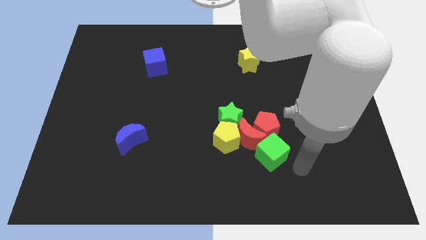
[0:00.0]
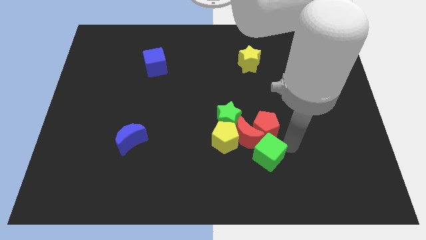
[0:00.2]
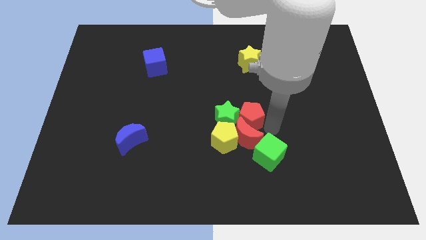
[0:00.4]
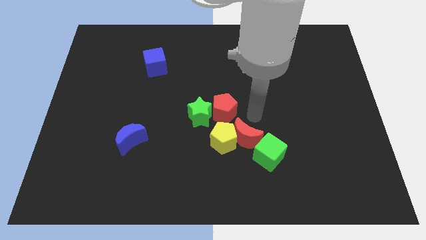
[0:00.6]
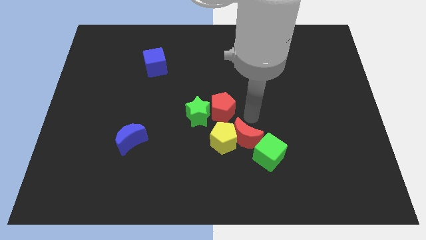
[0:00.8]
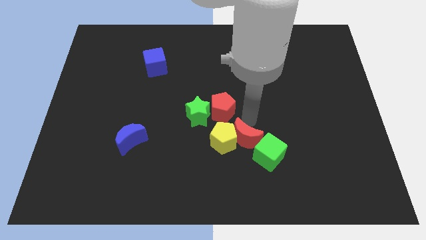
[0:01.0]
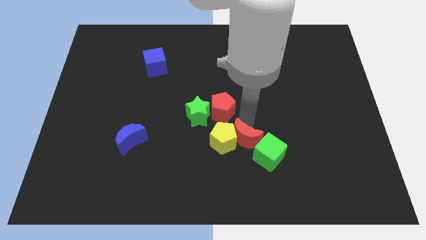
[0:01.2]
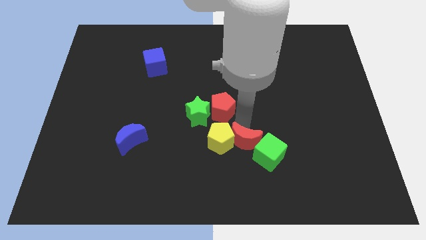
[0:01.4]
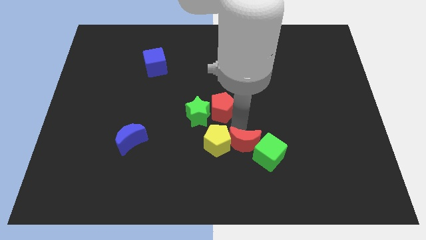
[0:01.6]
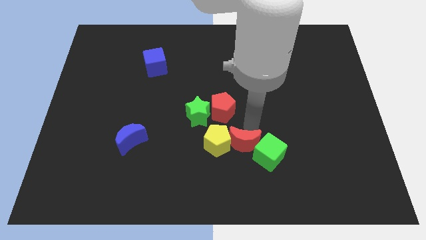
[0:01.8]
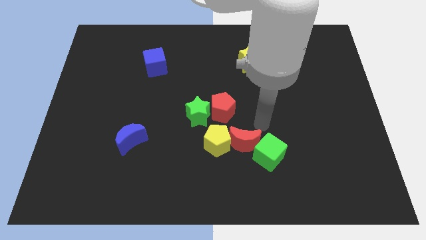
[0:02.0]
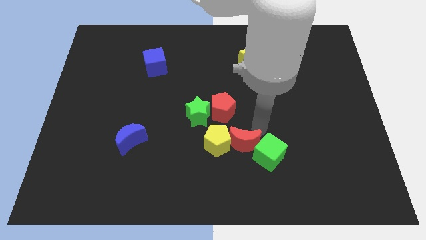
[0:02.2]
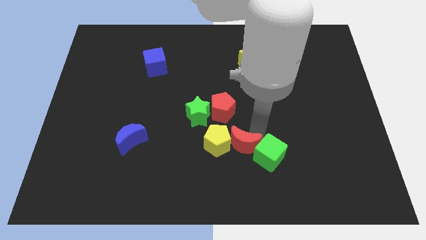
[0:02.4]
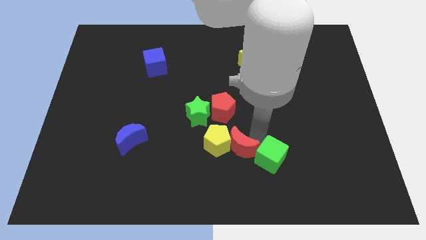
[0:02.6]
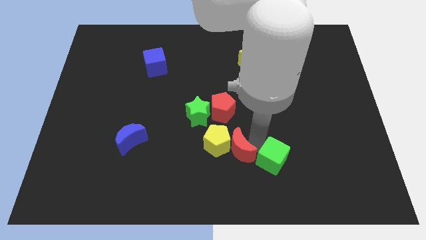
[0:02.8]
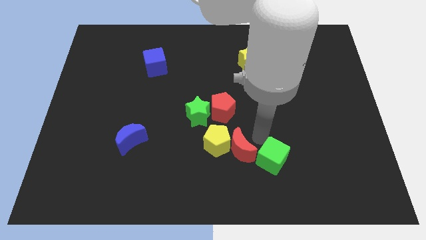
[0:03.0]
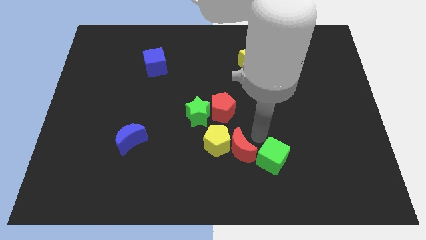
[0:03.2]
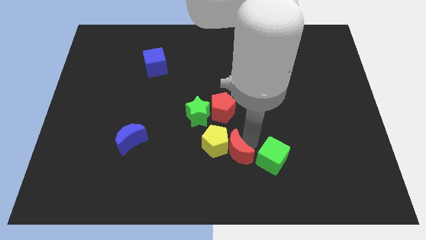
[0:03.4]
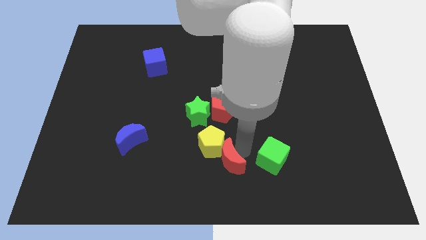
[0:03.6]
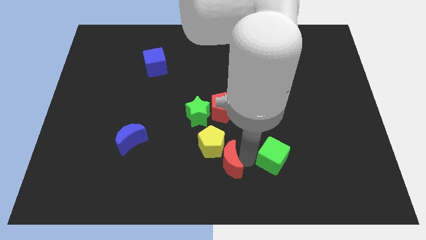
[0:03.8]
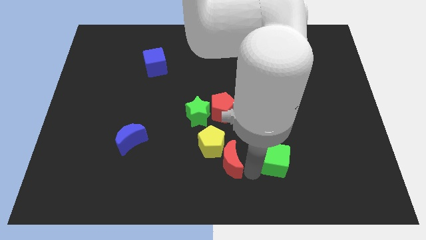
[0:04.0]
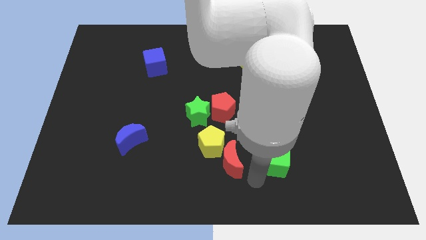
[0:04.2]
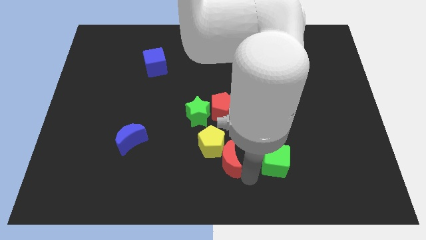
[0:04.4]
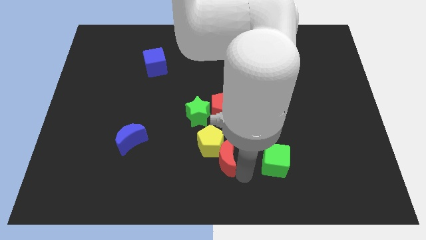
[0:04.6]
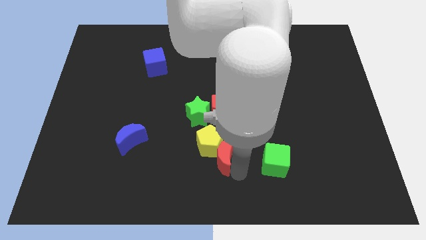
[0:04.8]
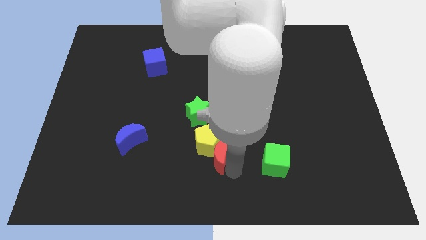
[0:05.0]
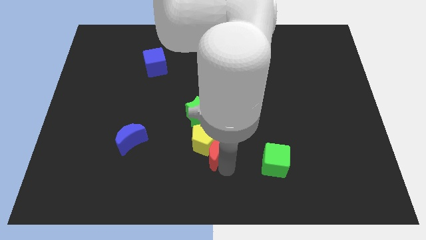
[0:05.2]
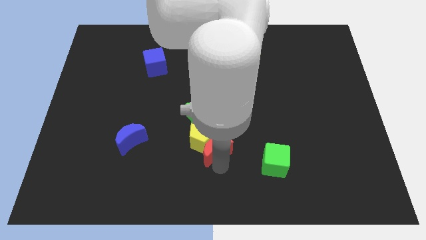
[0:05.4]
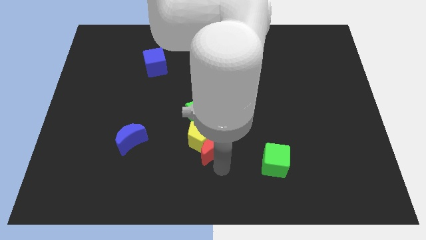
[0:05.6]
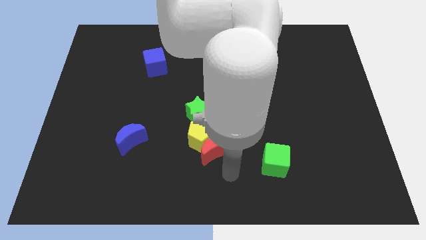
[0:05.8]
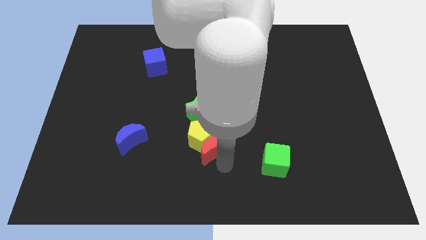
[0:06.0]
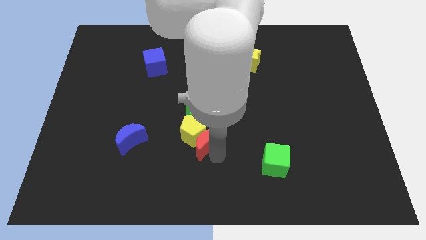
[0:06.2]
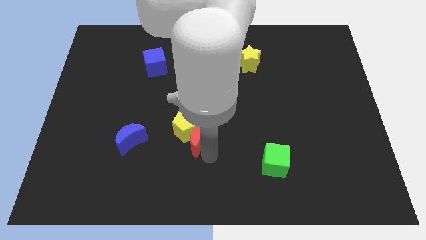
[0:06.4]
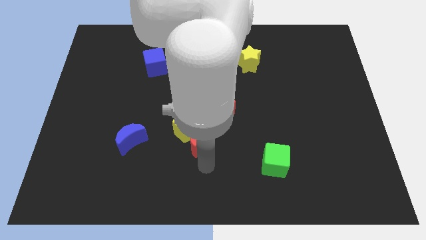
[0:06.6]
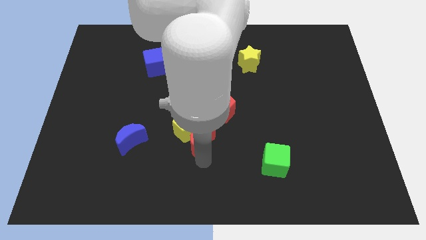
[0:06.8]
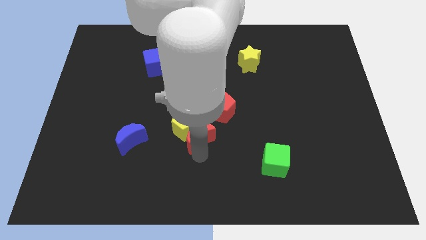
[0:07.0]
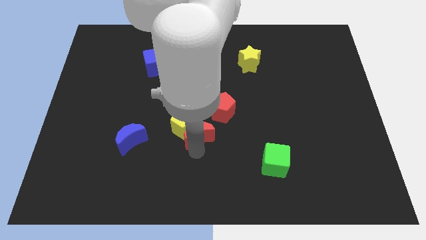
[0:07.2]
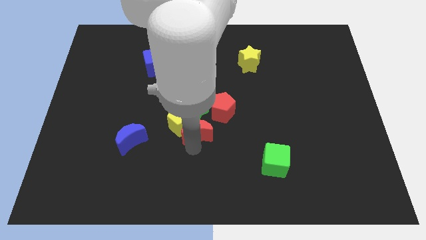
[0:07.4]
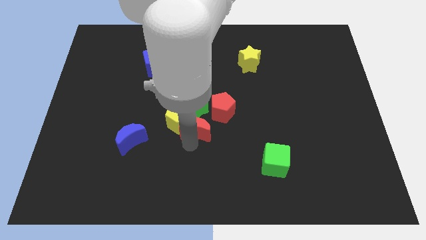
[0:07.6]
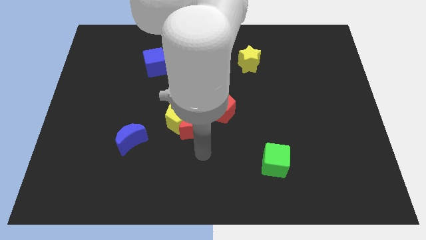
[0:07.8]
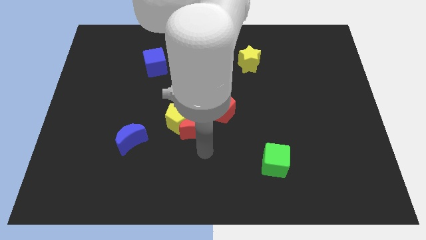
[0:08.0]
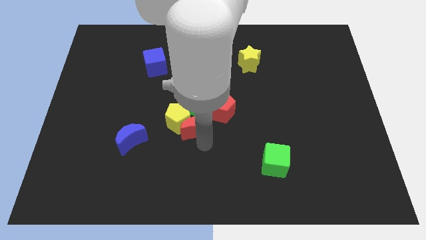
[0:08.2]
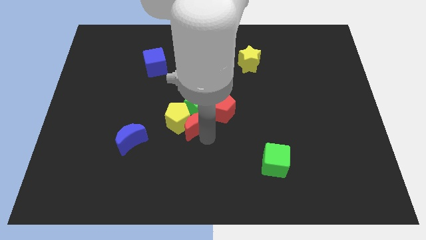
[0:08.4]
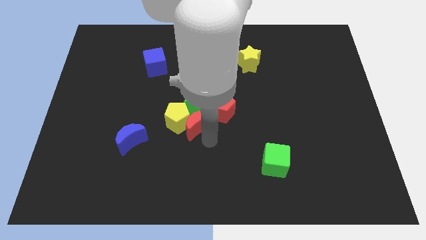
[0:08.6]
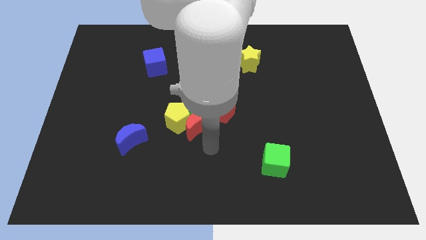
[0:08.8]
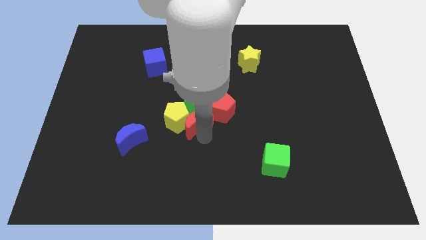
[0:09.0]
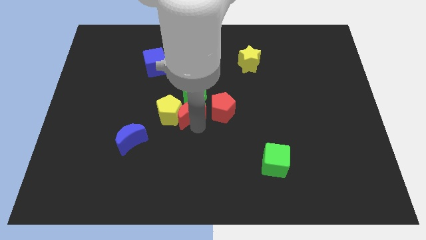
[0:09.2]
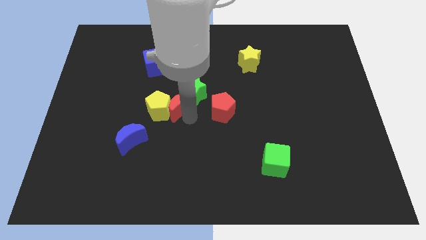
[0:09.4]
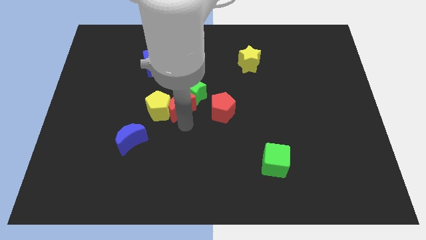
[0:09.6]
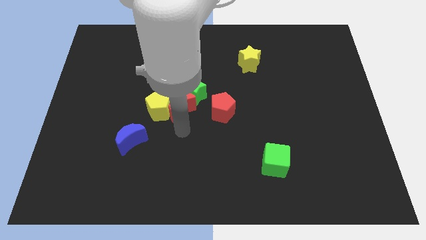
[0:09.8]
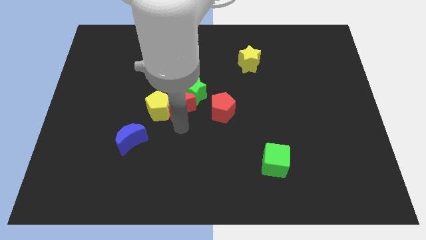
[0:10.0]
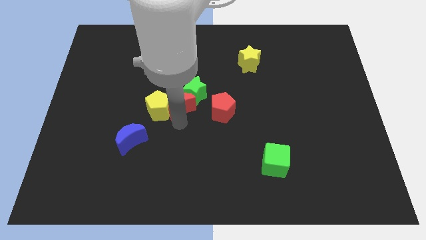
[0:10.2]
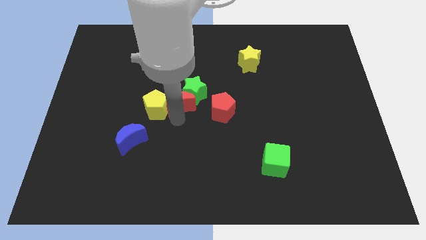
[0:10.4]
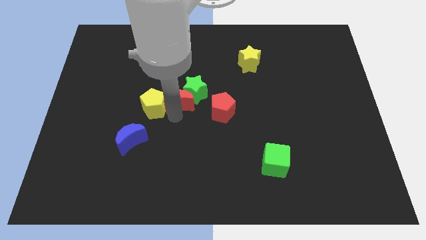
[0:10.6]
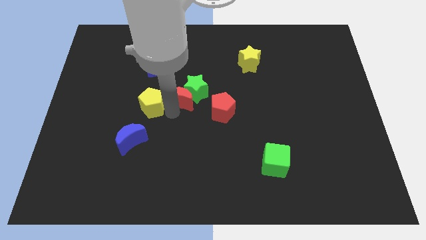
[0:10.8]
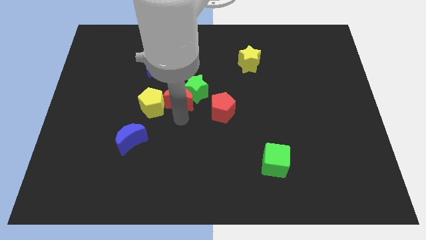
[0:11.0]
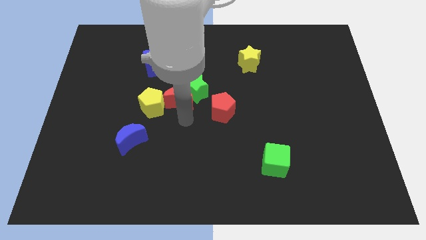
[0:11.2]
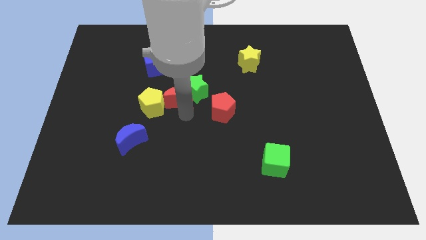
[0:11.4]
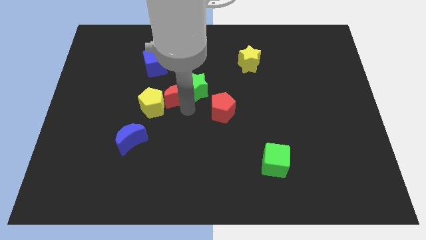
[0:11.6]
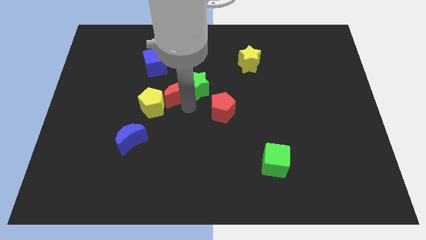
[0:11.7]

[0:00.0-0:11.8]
move the red moon to the bottom right side of the blue cube

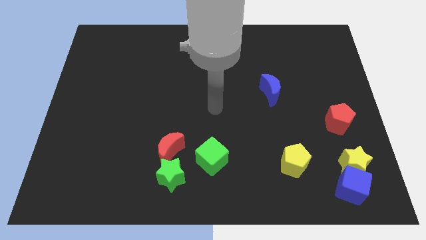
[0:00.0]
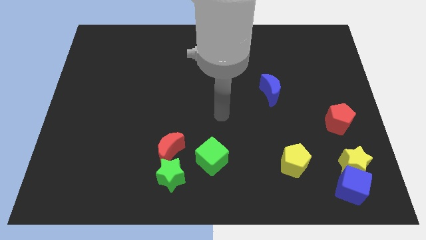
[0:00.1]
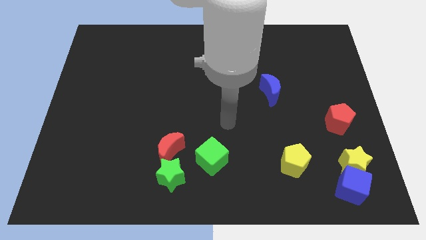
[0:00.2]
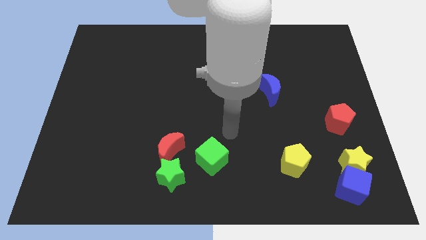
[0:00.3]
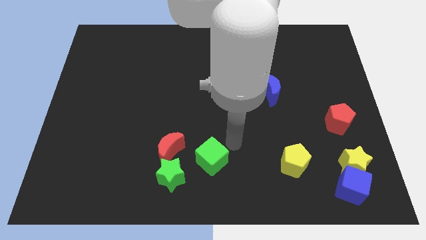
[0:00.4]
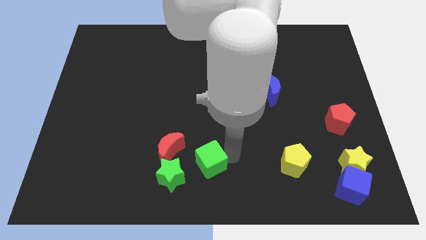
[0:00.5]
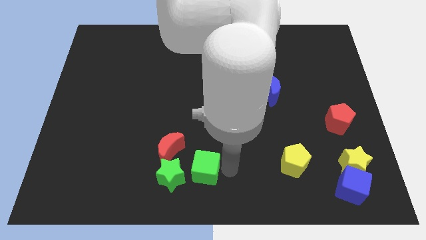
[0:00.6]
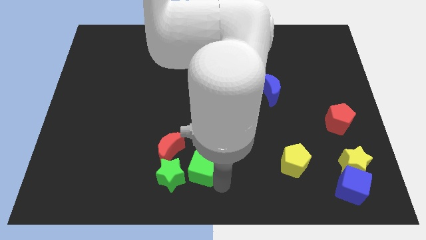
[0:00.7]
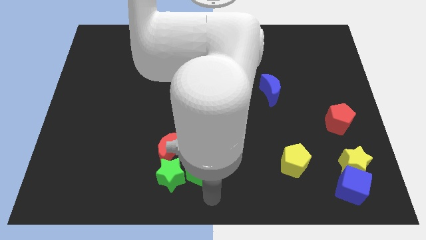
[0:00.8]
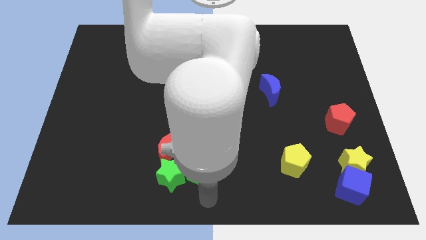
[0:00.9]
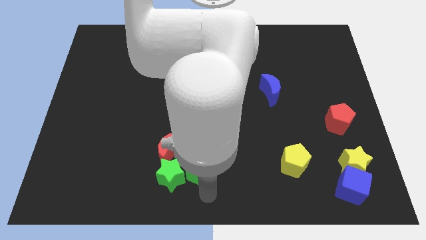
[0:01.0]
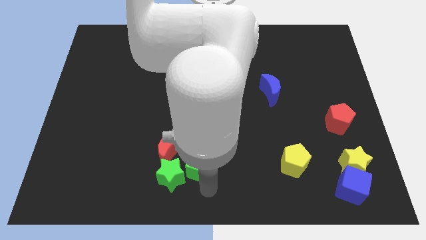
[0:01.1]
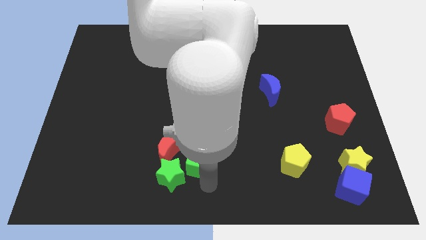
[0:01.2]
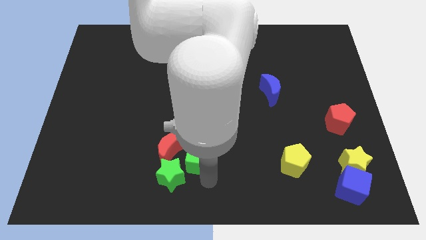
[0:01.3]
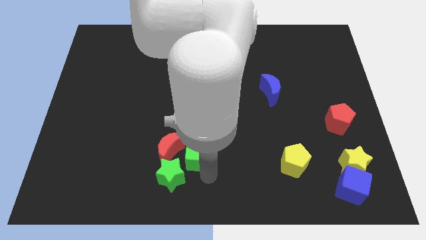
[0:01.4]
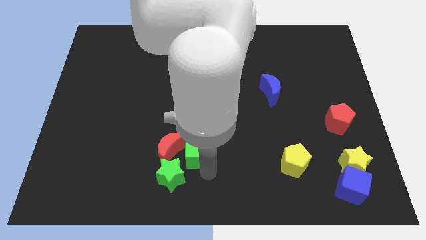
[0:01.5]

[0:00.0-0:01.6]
push the green cube diagonally up and to the right of the red moon
